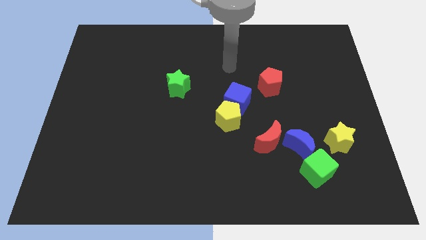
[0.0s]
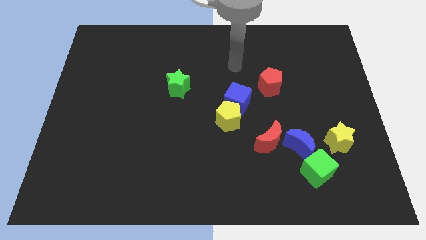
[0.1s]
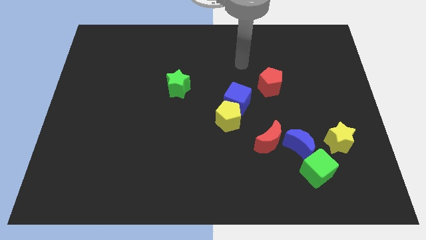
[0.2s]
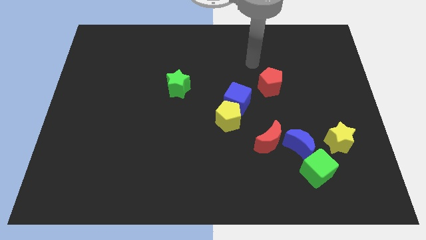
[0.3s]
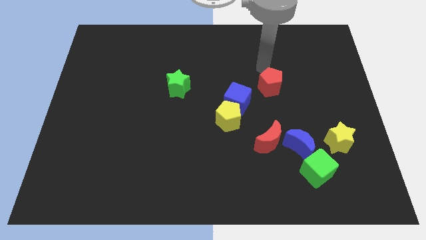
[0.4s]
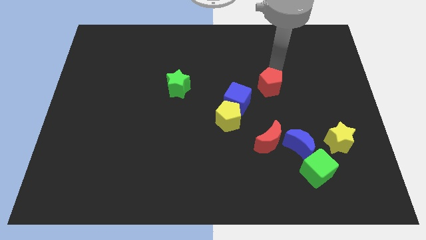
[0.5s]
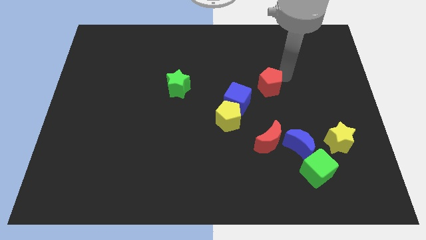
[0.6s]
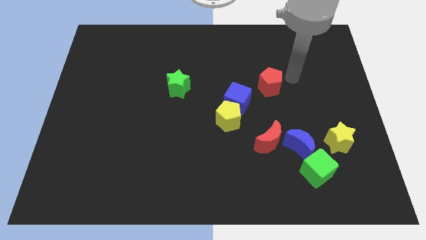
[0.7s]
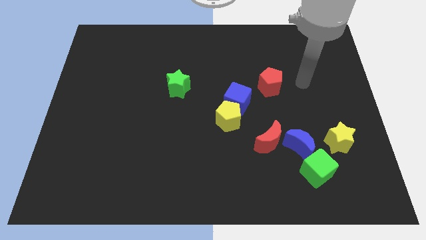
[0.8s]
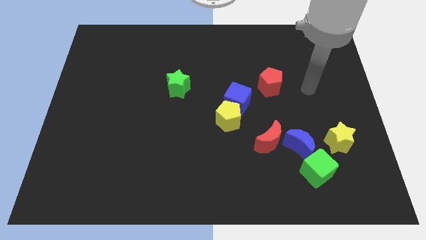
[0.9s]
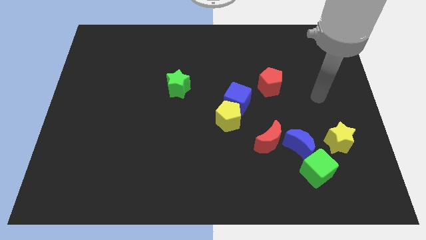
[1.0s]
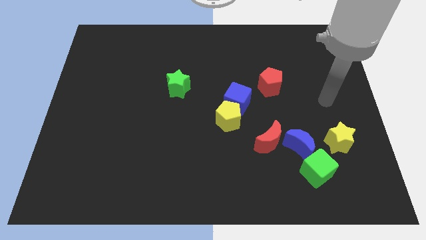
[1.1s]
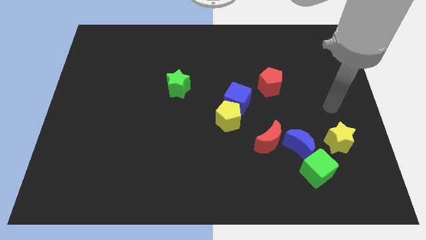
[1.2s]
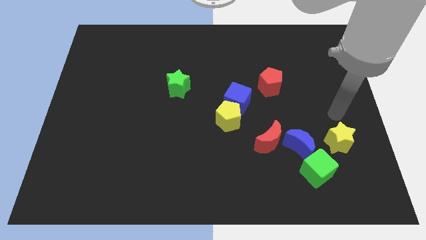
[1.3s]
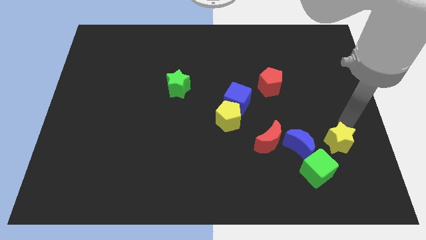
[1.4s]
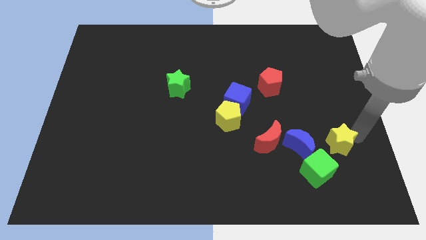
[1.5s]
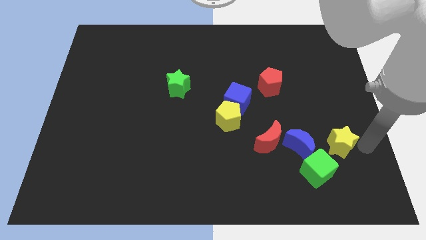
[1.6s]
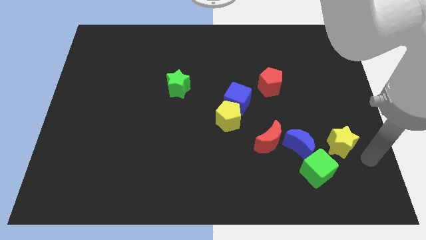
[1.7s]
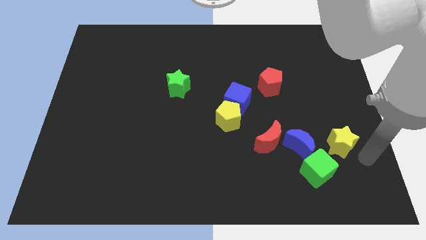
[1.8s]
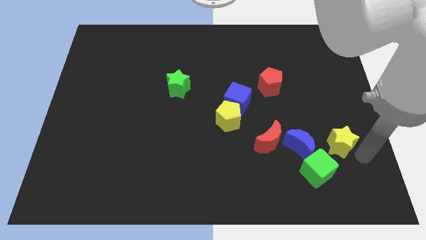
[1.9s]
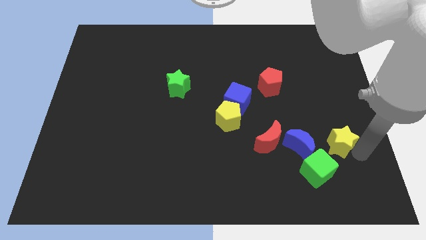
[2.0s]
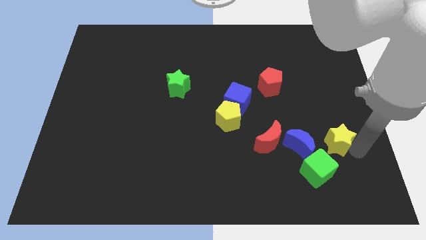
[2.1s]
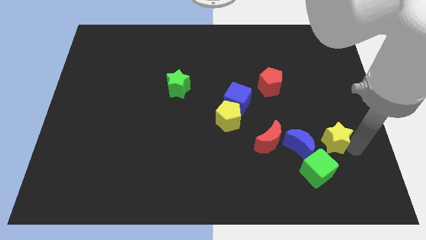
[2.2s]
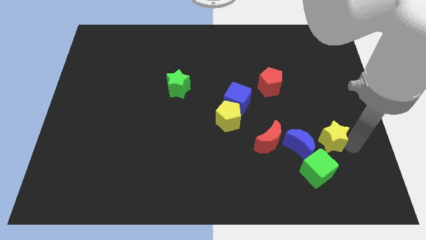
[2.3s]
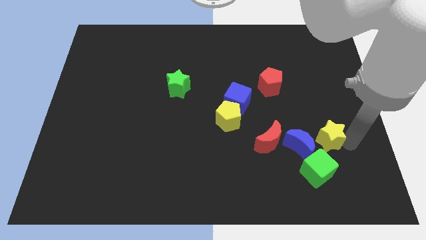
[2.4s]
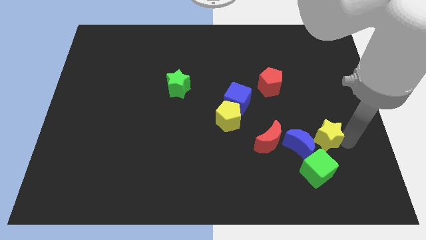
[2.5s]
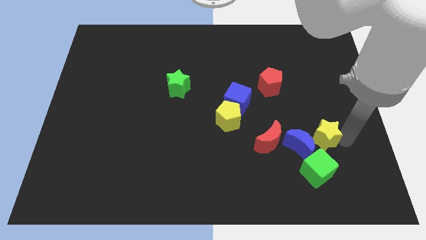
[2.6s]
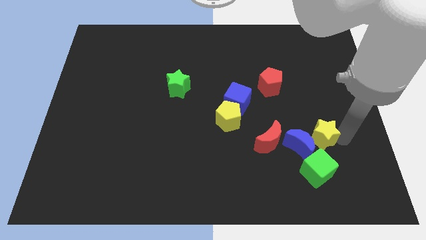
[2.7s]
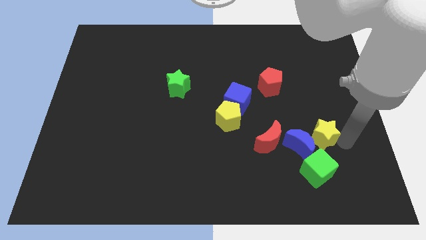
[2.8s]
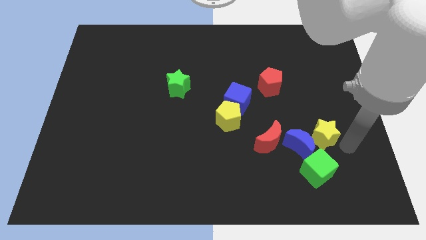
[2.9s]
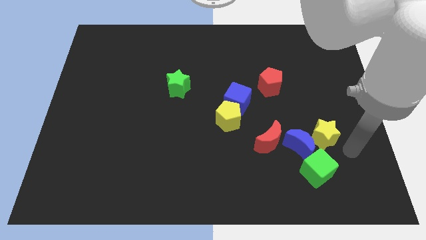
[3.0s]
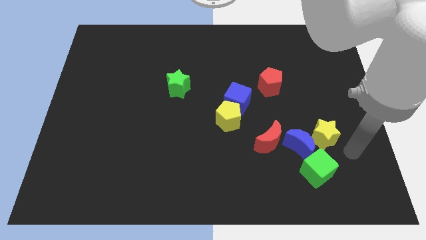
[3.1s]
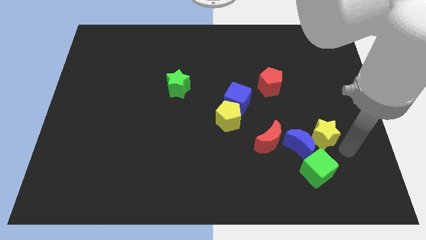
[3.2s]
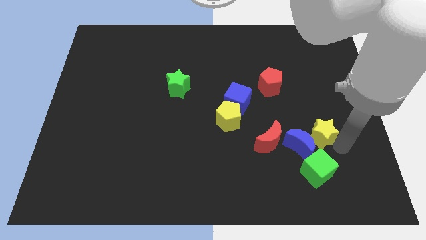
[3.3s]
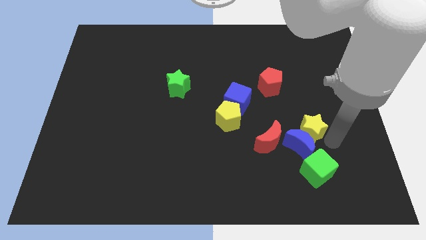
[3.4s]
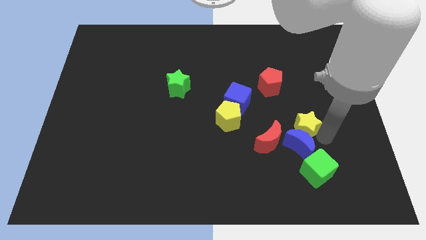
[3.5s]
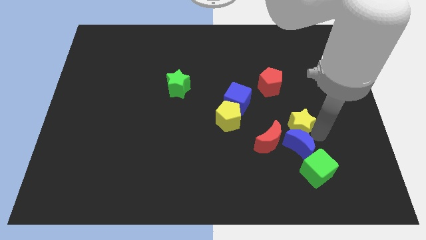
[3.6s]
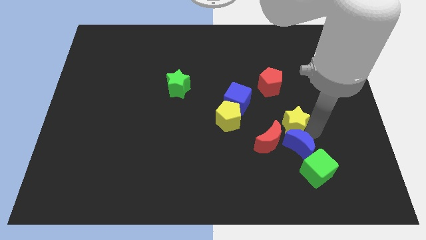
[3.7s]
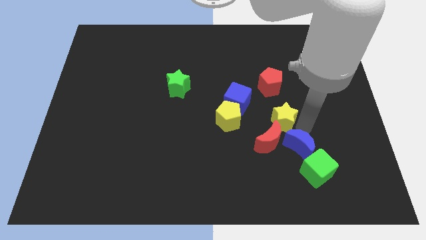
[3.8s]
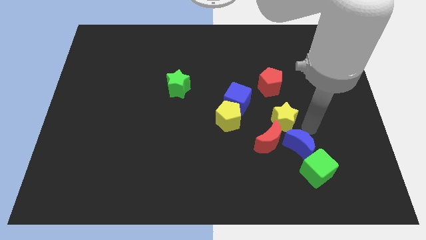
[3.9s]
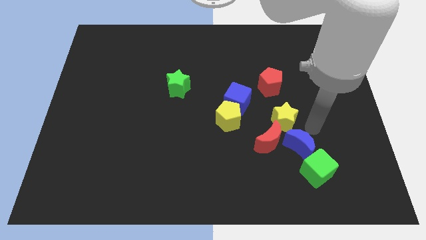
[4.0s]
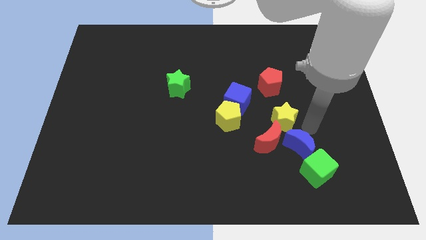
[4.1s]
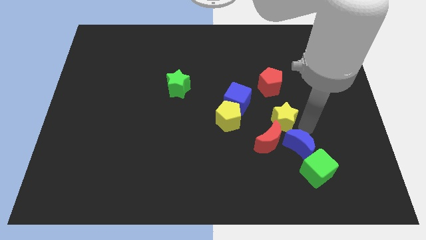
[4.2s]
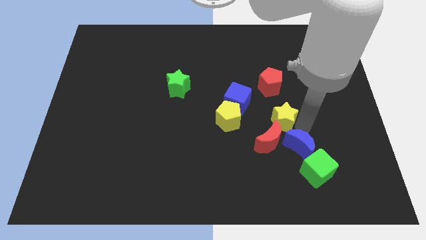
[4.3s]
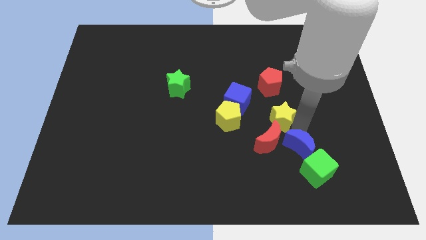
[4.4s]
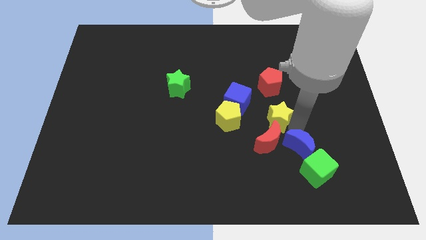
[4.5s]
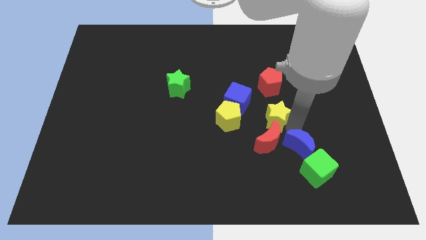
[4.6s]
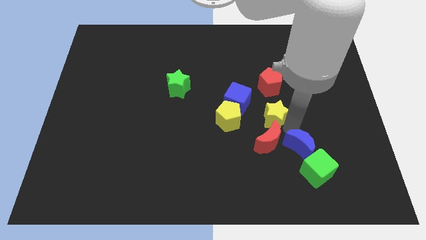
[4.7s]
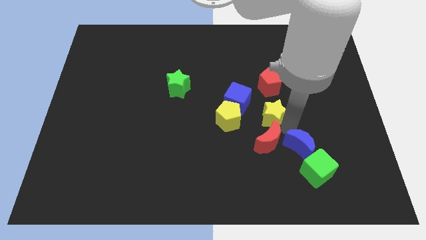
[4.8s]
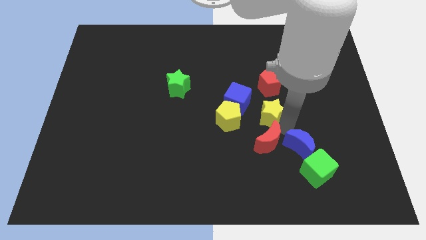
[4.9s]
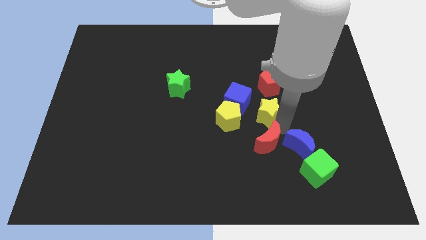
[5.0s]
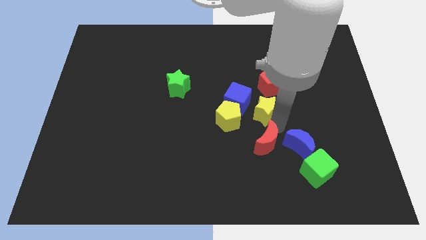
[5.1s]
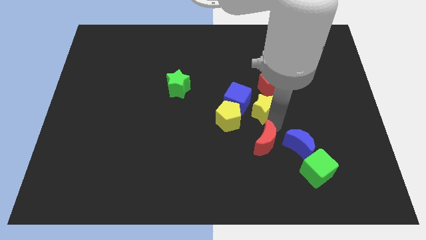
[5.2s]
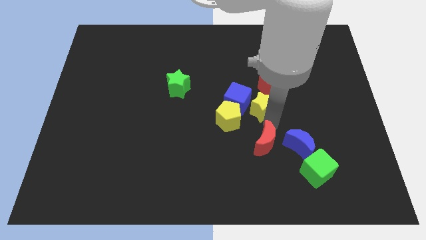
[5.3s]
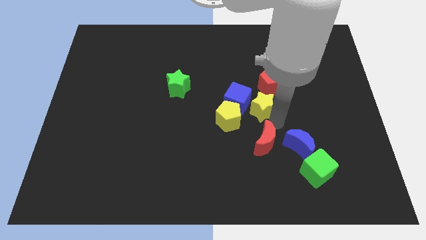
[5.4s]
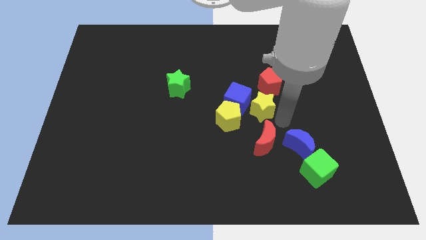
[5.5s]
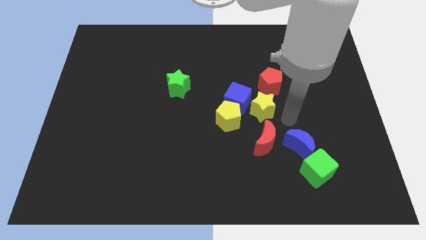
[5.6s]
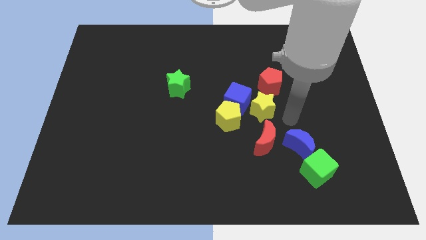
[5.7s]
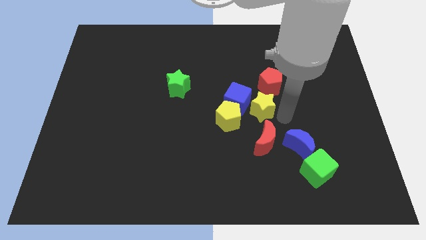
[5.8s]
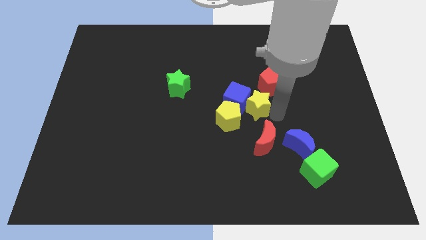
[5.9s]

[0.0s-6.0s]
move the yellow star to the blue cube

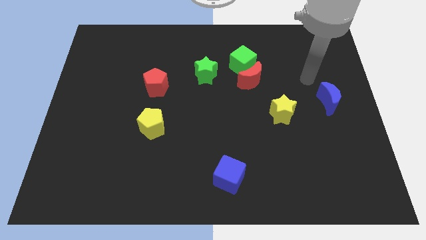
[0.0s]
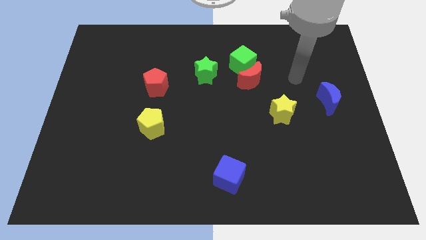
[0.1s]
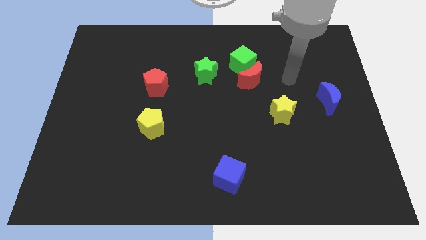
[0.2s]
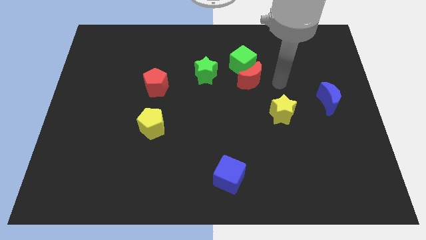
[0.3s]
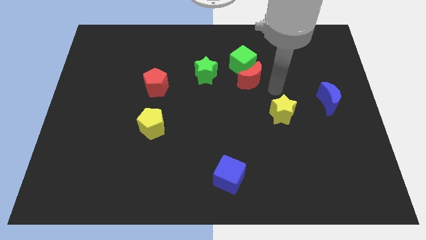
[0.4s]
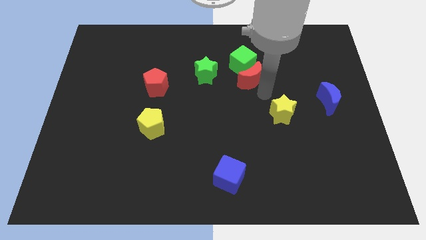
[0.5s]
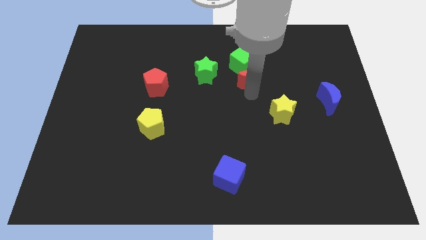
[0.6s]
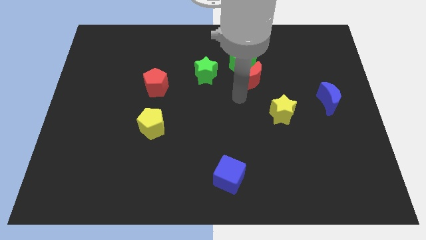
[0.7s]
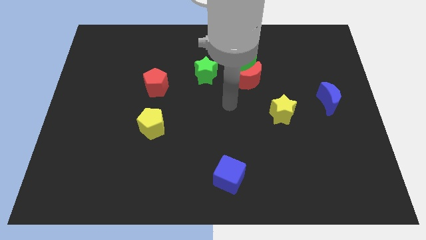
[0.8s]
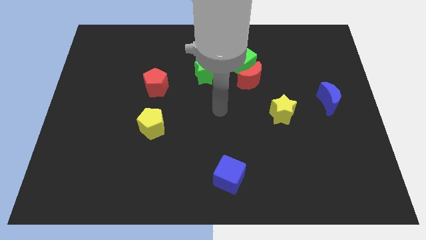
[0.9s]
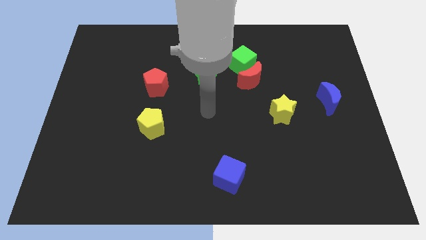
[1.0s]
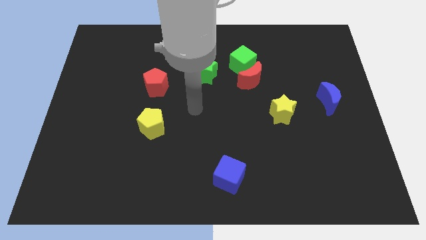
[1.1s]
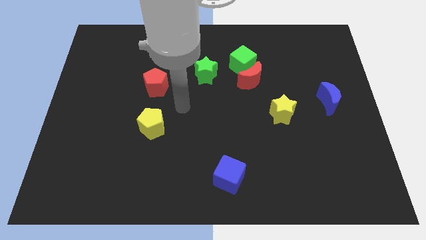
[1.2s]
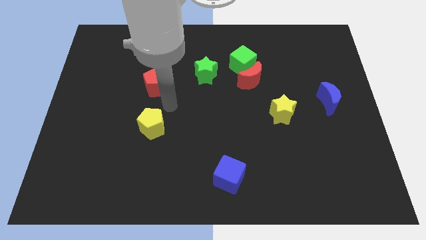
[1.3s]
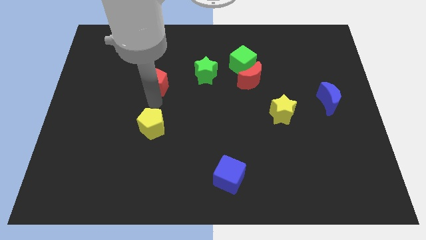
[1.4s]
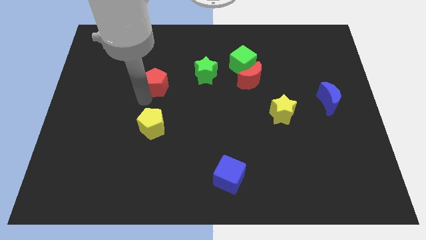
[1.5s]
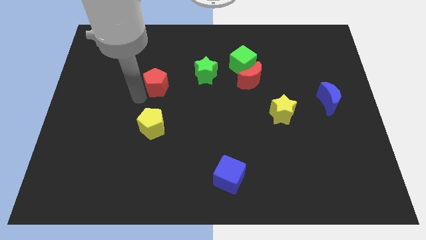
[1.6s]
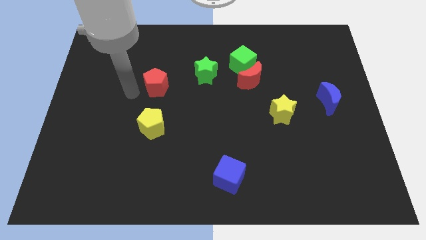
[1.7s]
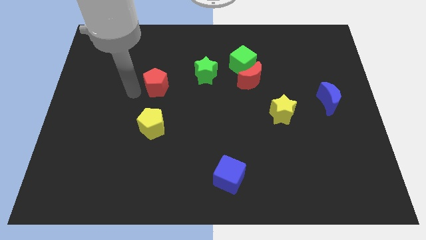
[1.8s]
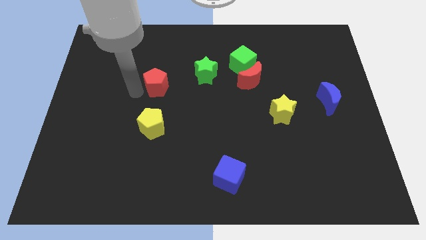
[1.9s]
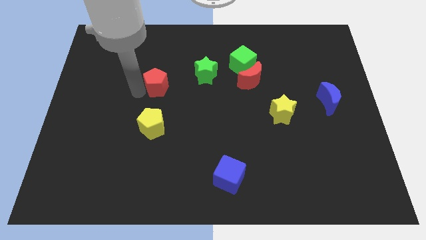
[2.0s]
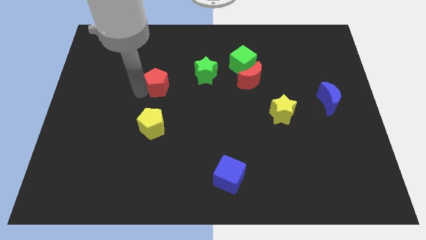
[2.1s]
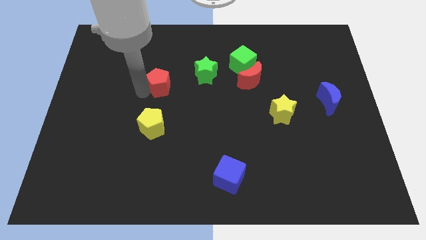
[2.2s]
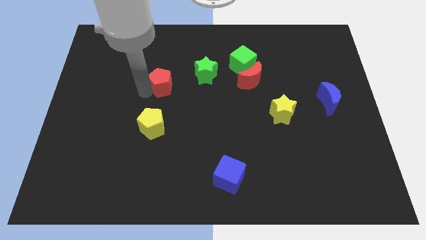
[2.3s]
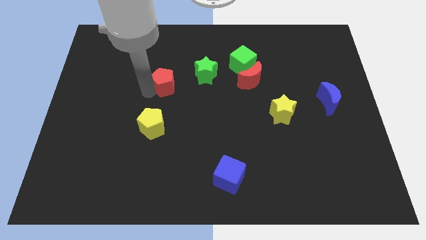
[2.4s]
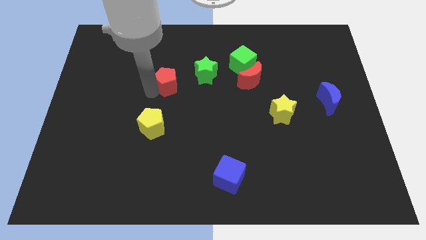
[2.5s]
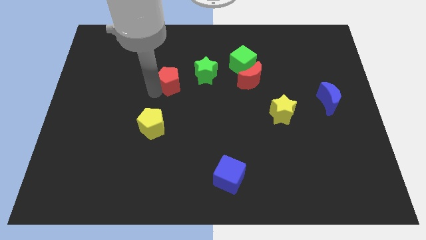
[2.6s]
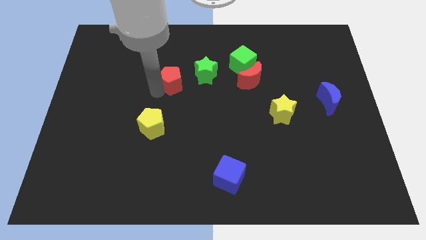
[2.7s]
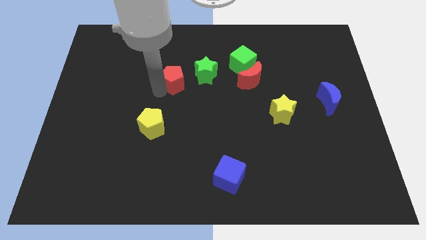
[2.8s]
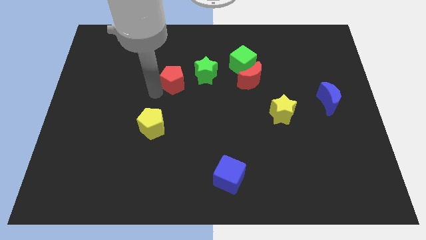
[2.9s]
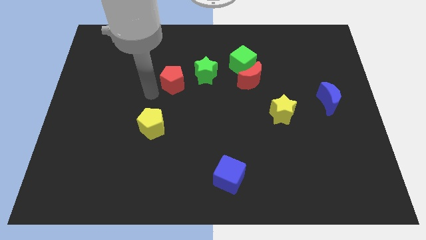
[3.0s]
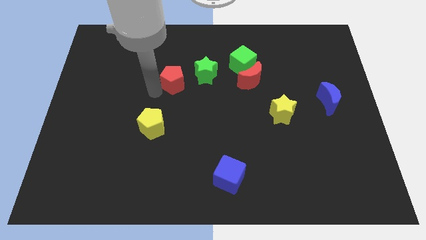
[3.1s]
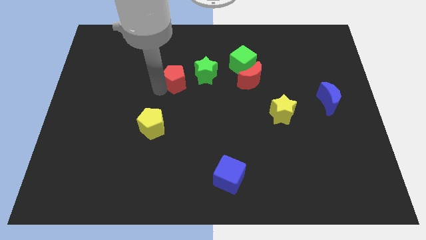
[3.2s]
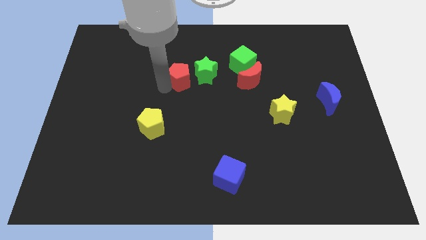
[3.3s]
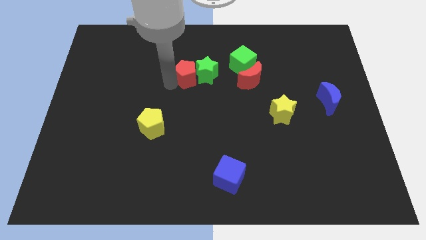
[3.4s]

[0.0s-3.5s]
push the red pentagon close to the green star
